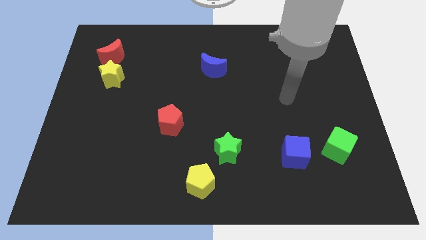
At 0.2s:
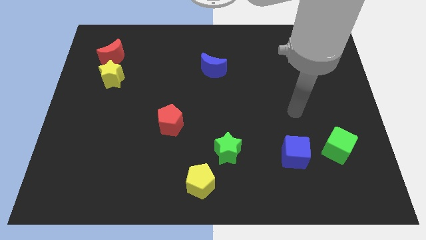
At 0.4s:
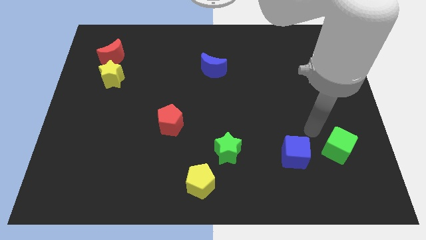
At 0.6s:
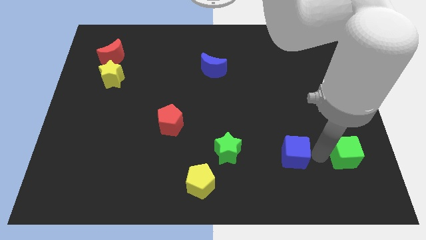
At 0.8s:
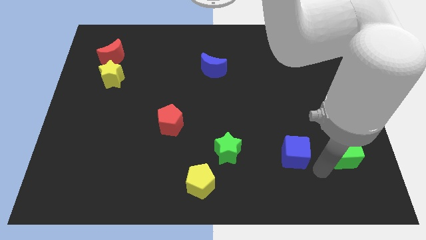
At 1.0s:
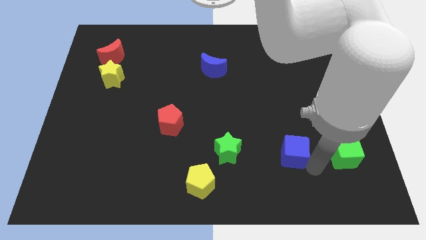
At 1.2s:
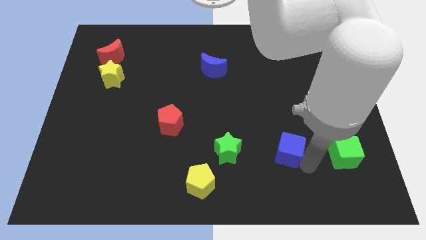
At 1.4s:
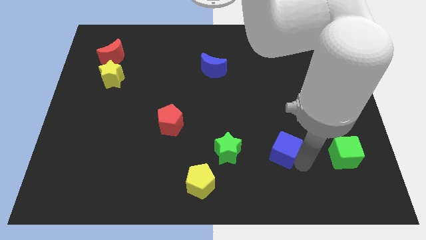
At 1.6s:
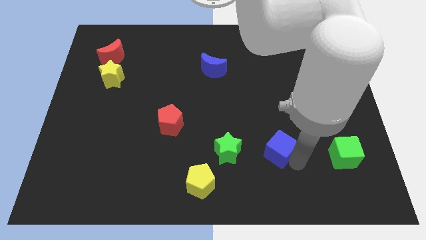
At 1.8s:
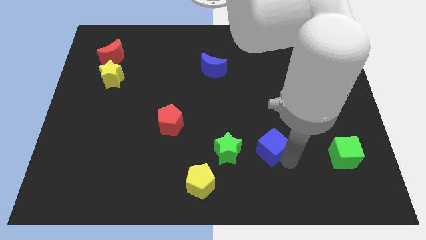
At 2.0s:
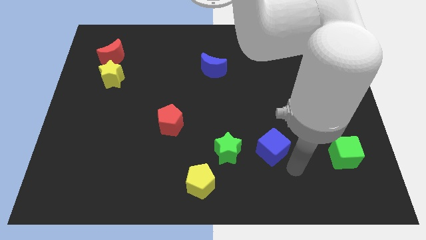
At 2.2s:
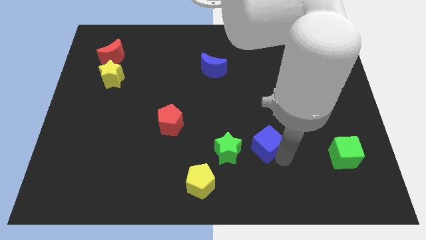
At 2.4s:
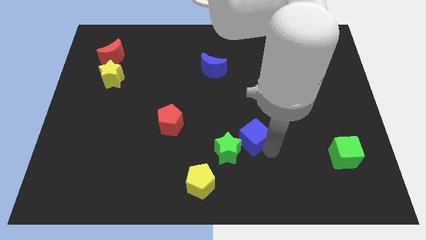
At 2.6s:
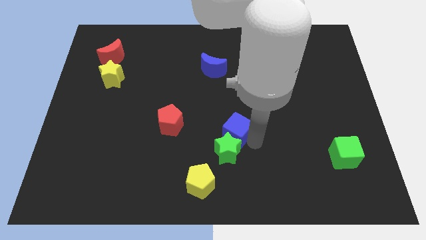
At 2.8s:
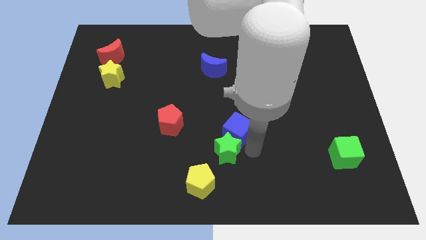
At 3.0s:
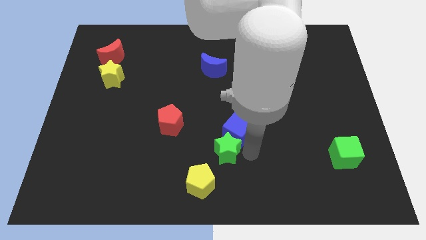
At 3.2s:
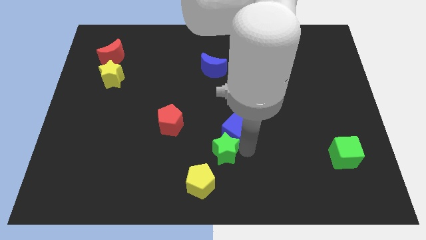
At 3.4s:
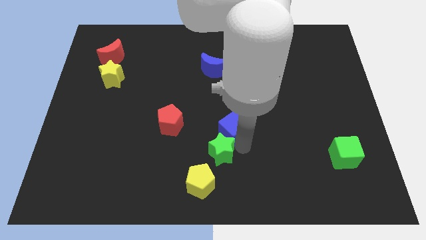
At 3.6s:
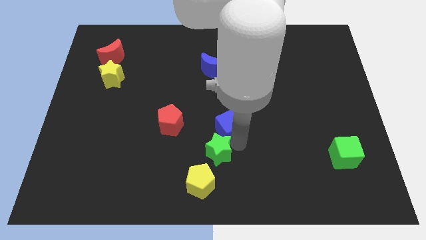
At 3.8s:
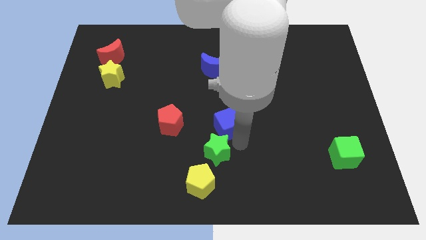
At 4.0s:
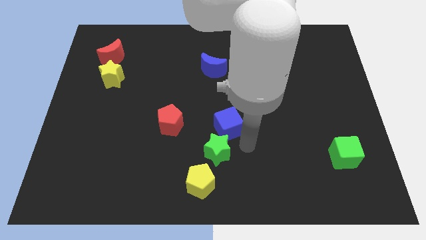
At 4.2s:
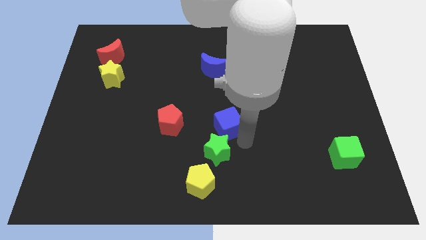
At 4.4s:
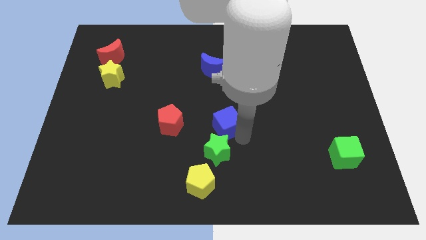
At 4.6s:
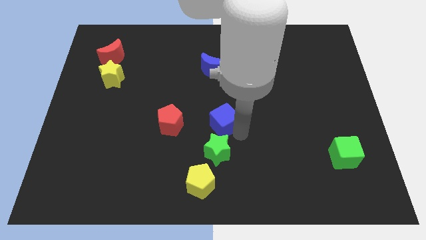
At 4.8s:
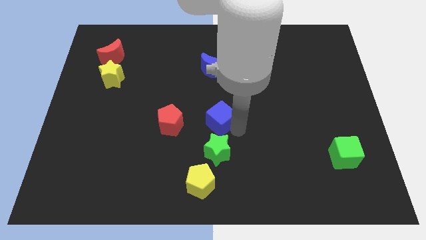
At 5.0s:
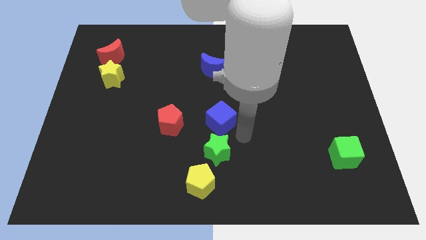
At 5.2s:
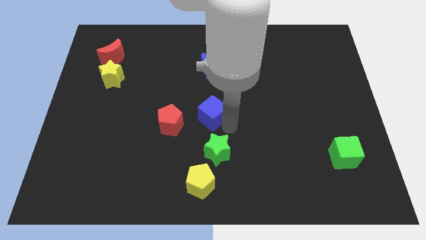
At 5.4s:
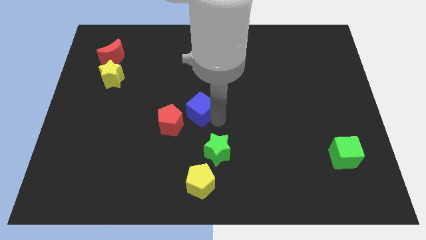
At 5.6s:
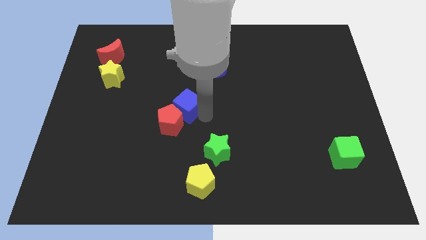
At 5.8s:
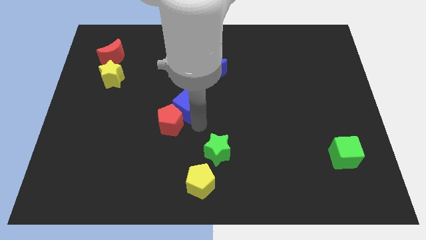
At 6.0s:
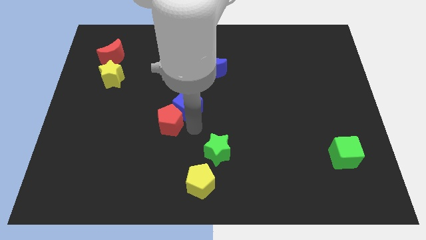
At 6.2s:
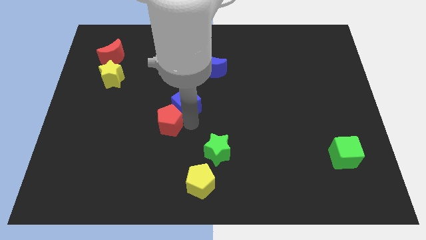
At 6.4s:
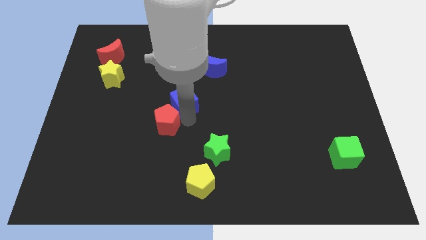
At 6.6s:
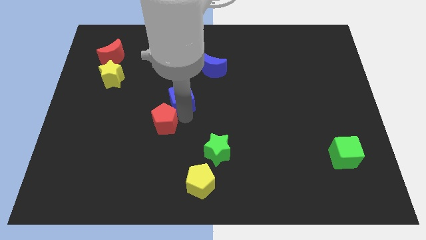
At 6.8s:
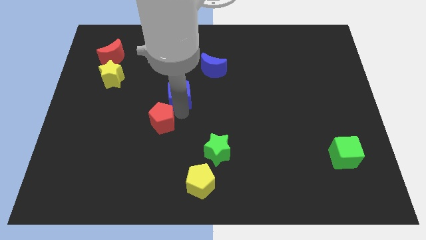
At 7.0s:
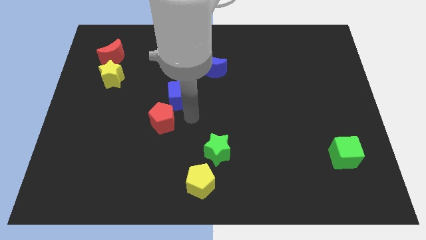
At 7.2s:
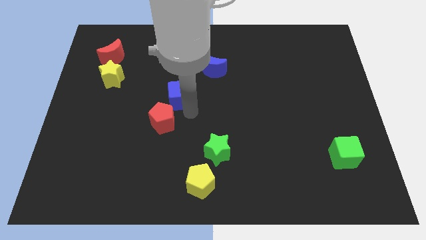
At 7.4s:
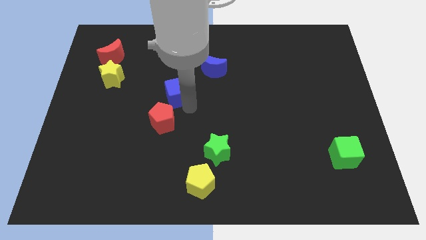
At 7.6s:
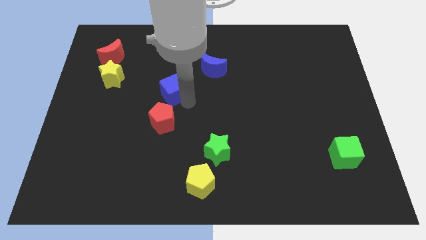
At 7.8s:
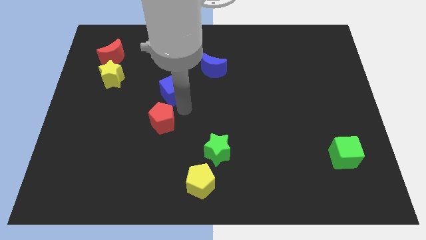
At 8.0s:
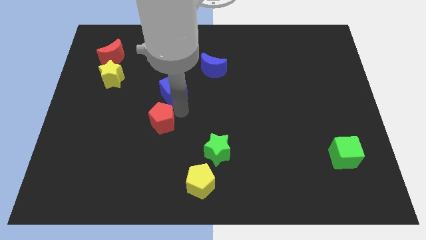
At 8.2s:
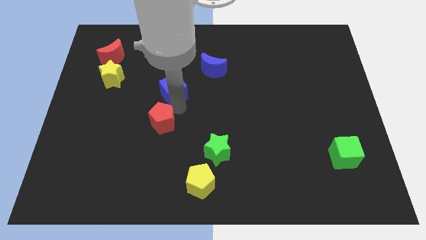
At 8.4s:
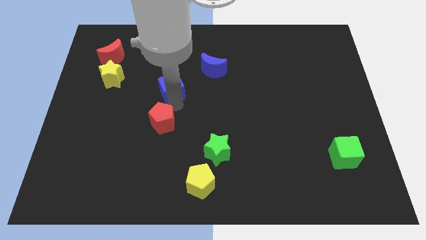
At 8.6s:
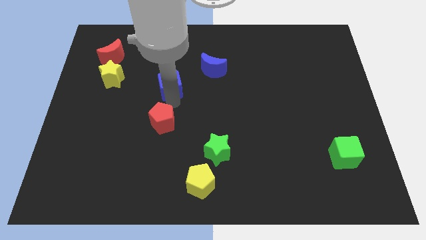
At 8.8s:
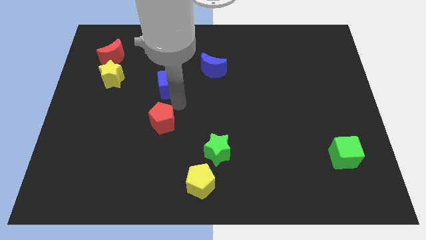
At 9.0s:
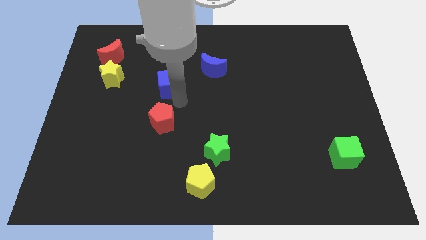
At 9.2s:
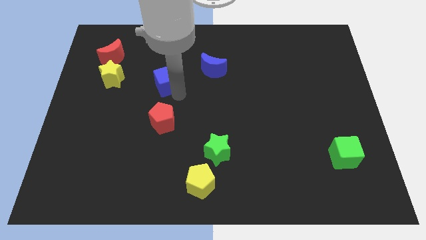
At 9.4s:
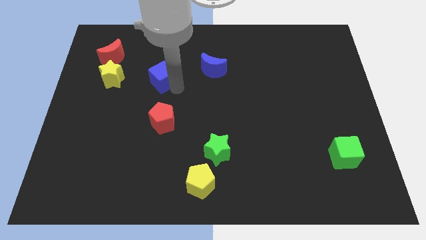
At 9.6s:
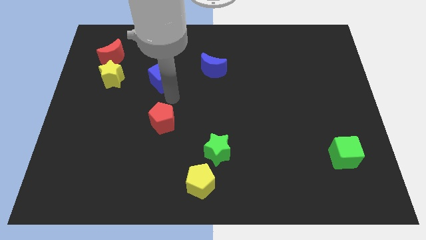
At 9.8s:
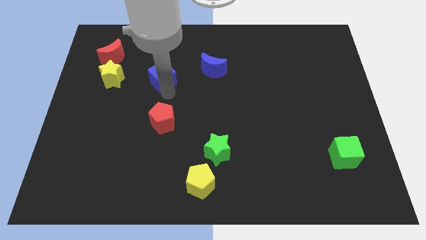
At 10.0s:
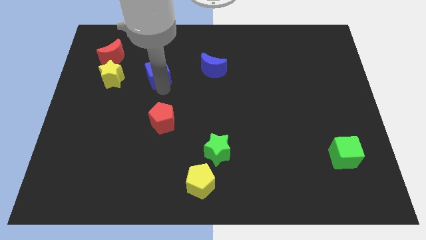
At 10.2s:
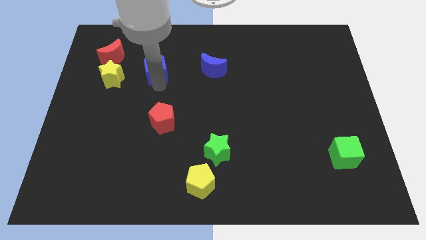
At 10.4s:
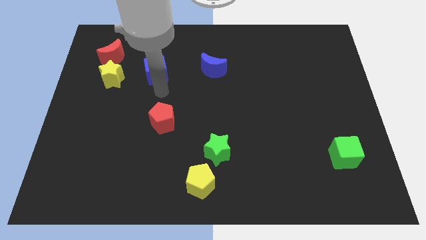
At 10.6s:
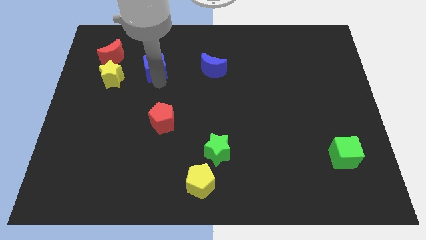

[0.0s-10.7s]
slide the blue cube right of the red moon

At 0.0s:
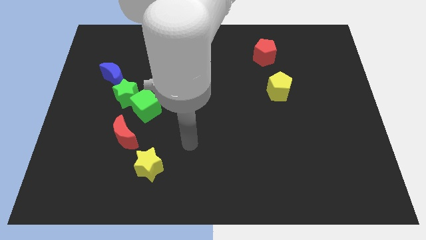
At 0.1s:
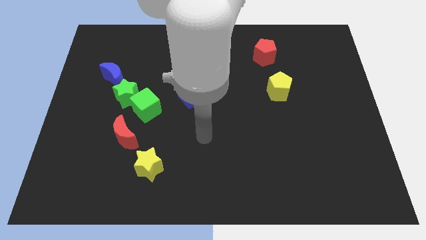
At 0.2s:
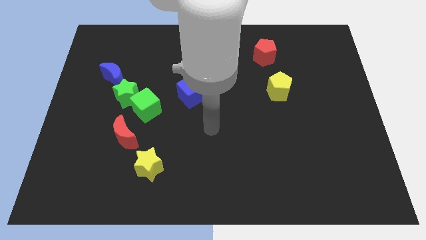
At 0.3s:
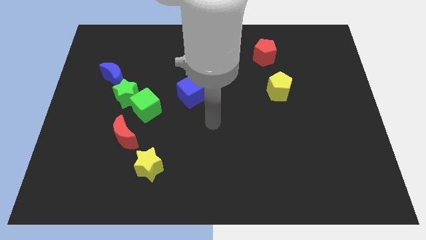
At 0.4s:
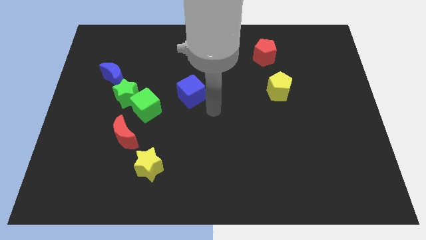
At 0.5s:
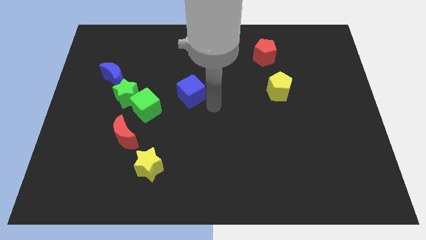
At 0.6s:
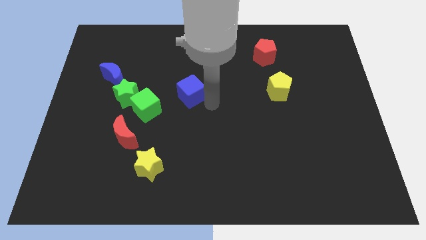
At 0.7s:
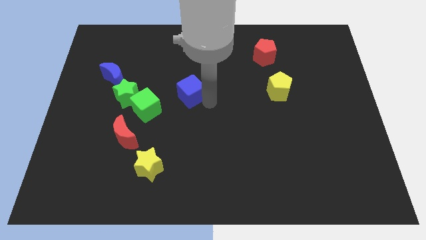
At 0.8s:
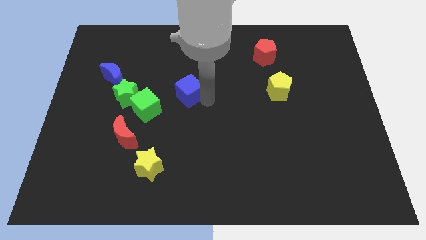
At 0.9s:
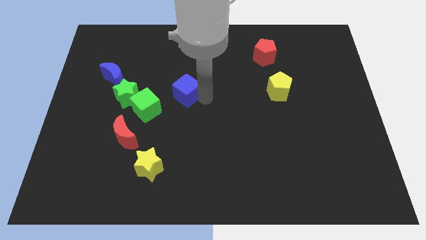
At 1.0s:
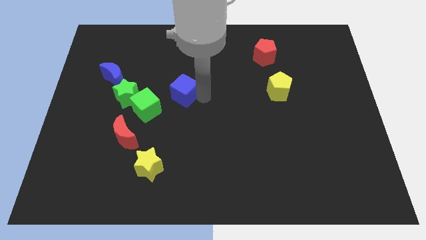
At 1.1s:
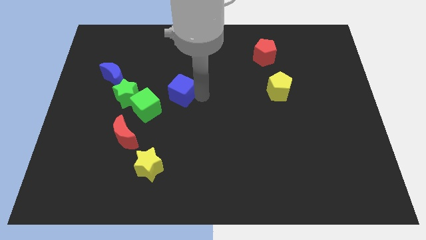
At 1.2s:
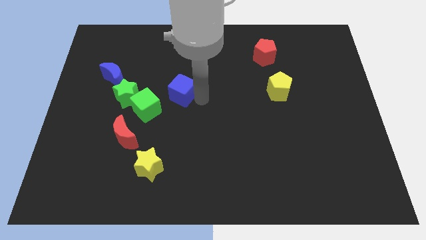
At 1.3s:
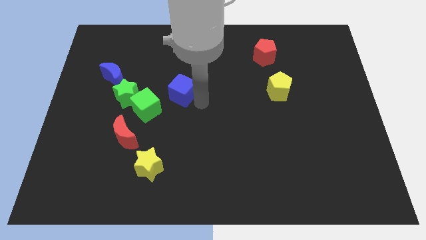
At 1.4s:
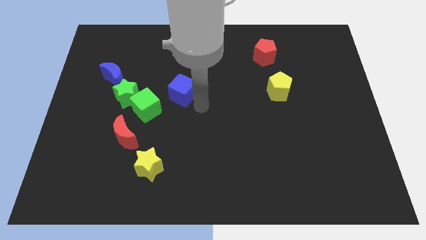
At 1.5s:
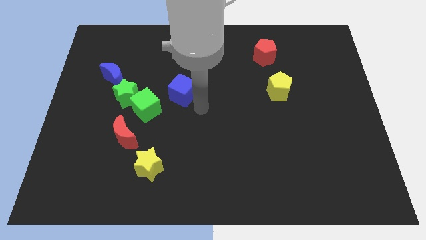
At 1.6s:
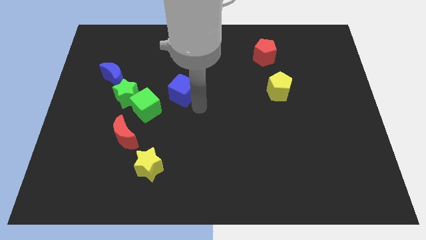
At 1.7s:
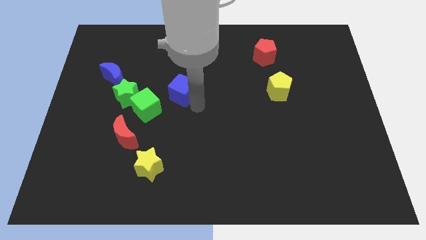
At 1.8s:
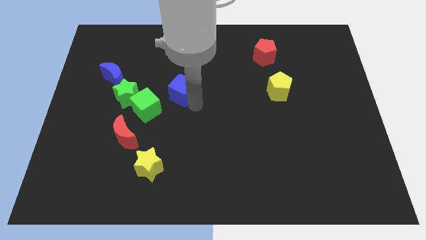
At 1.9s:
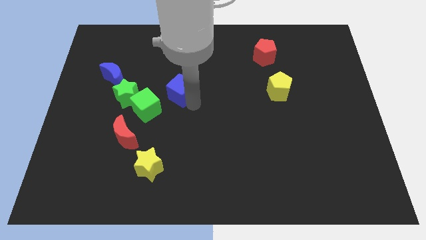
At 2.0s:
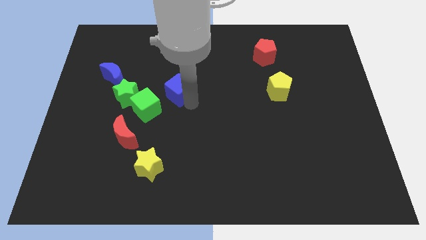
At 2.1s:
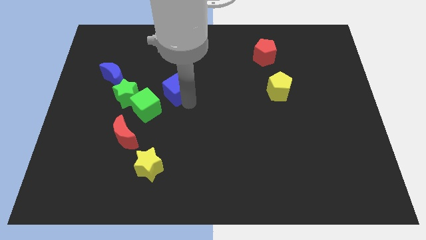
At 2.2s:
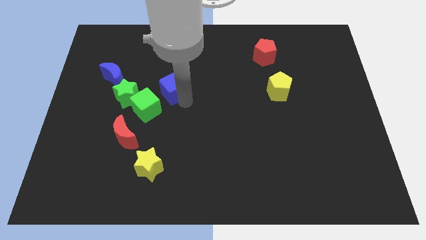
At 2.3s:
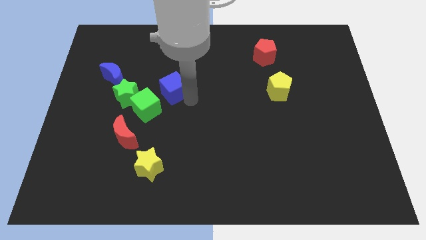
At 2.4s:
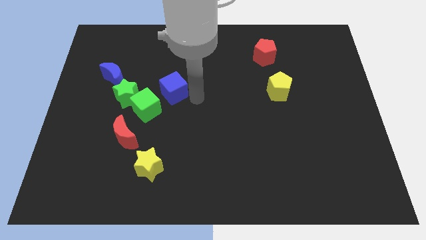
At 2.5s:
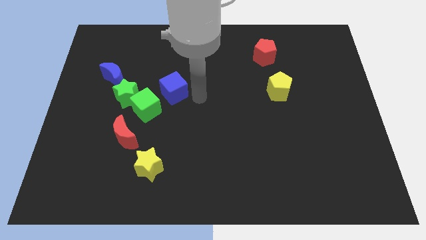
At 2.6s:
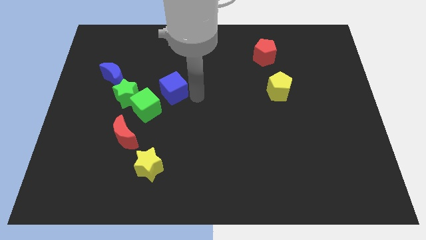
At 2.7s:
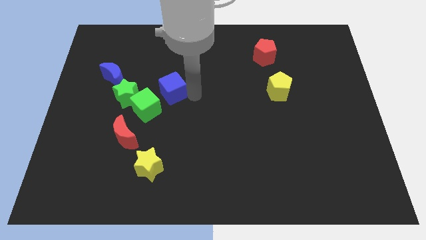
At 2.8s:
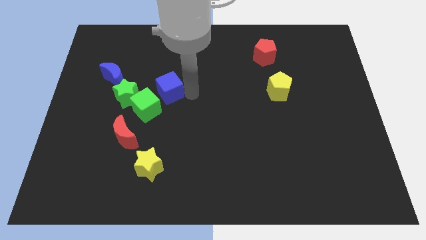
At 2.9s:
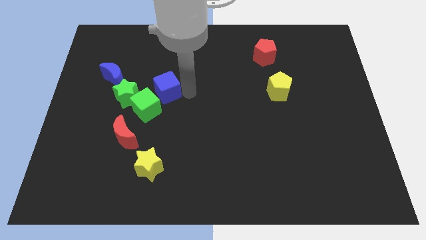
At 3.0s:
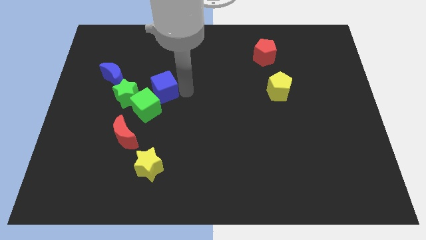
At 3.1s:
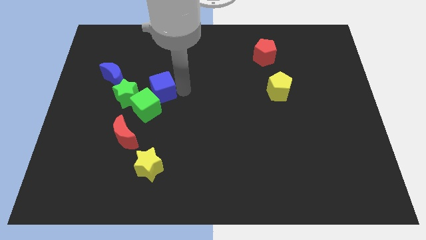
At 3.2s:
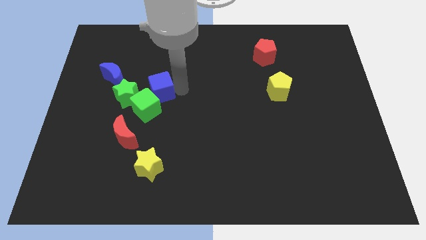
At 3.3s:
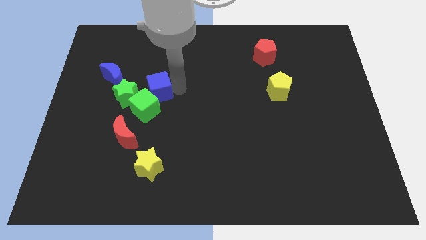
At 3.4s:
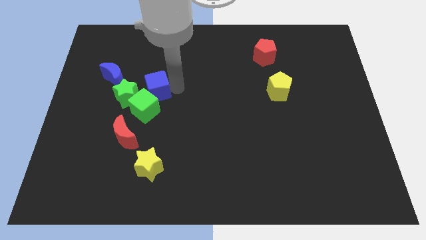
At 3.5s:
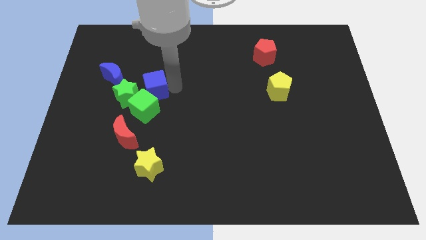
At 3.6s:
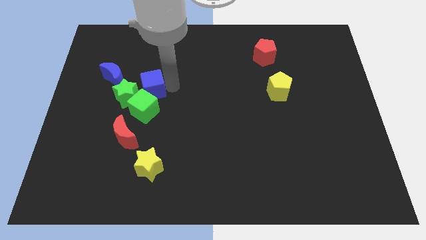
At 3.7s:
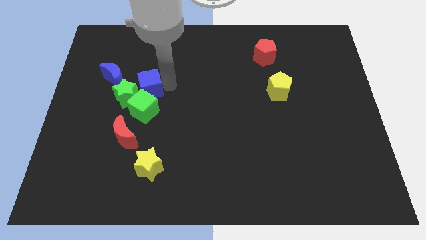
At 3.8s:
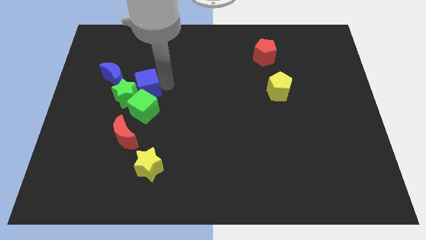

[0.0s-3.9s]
slide the blue cube to the top of the red moon
